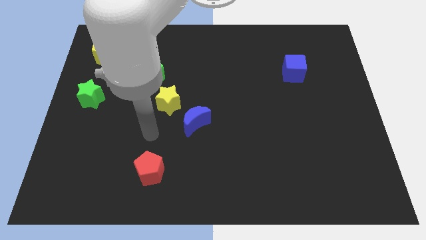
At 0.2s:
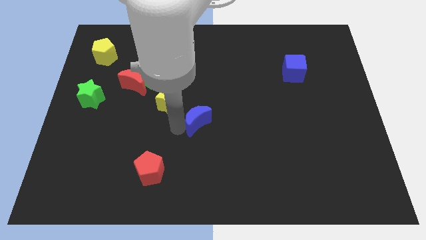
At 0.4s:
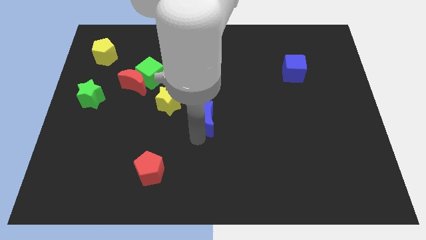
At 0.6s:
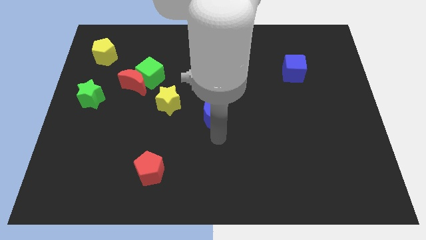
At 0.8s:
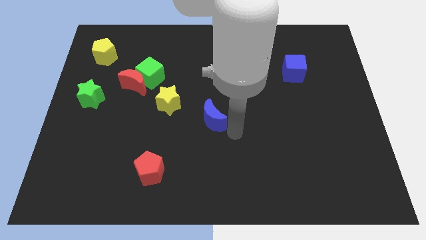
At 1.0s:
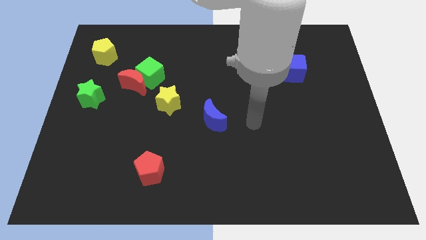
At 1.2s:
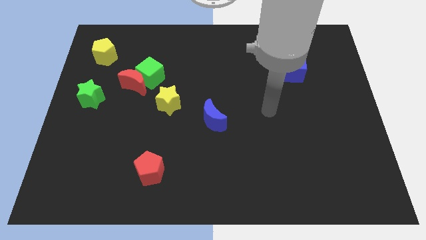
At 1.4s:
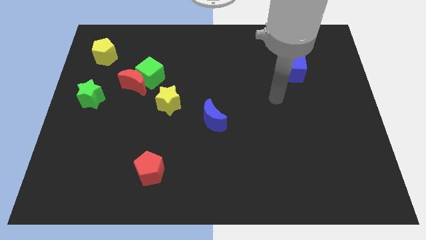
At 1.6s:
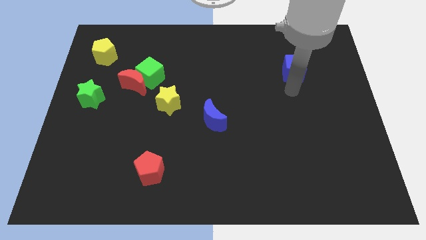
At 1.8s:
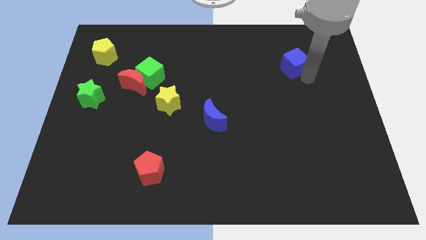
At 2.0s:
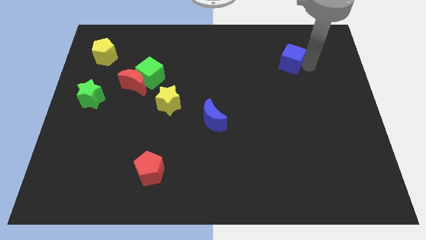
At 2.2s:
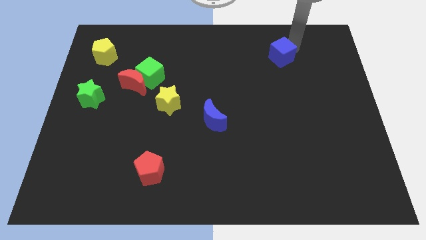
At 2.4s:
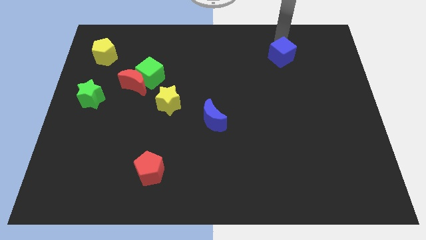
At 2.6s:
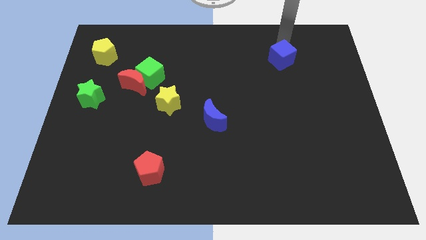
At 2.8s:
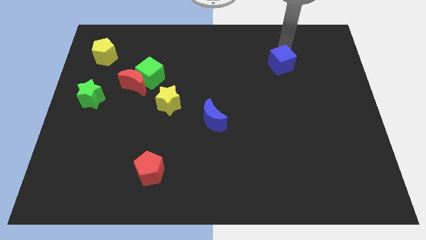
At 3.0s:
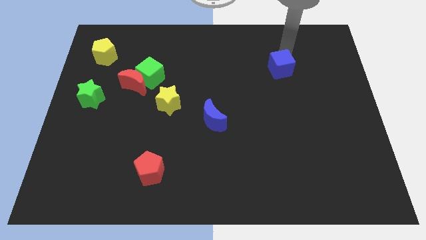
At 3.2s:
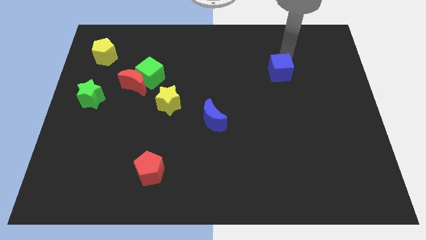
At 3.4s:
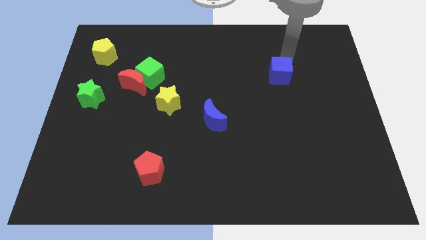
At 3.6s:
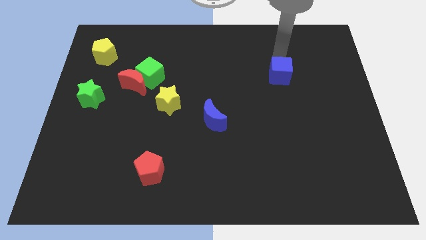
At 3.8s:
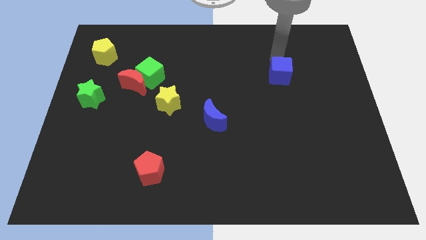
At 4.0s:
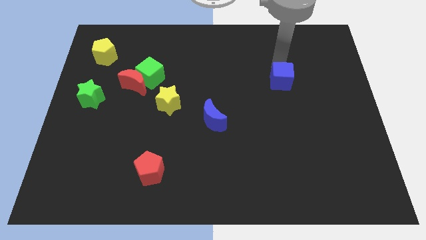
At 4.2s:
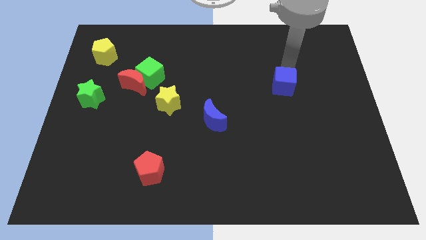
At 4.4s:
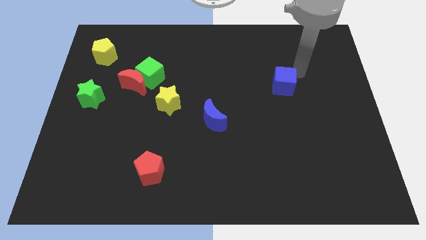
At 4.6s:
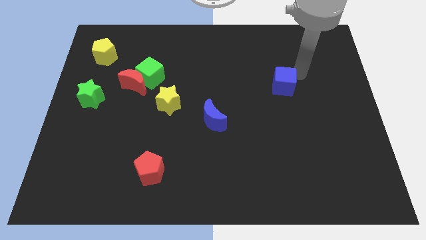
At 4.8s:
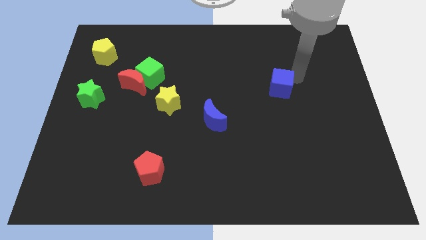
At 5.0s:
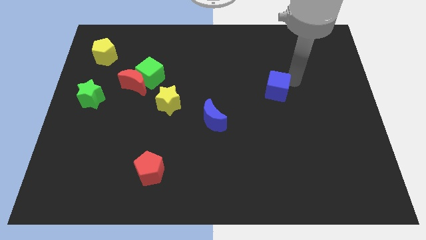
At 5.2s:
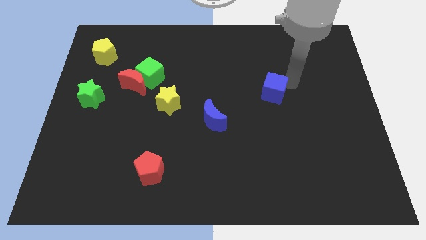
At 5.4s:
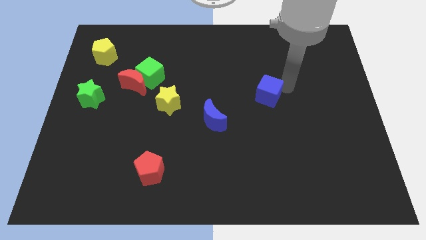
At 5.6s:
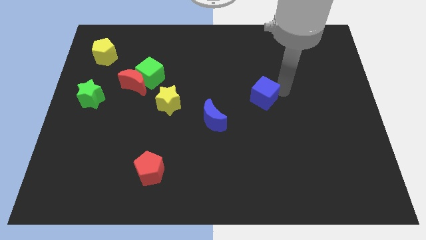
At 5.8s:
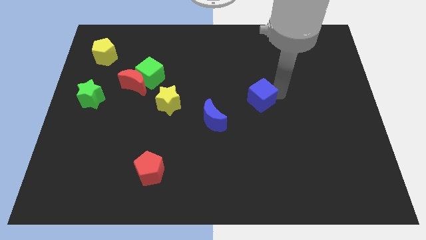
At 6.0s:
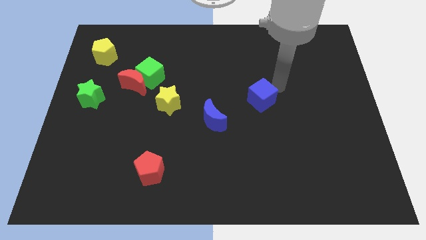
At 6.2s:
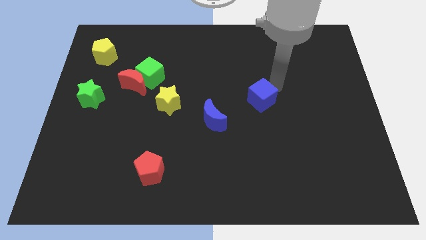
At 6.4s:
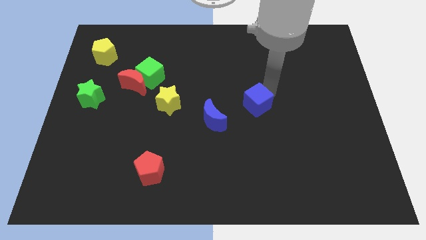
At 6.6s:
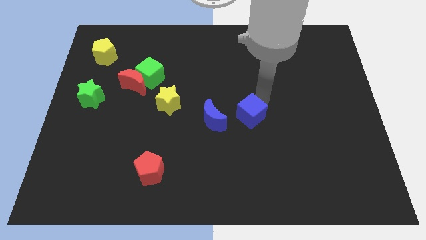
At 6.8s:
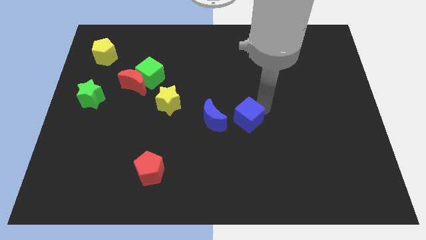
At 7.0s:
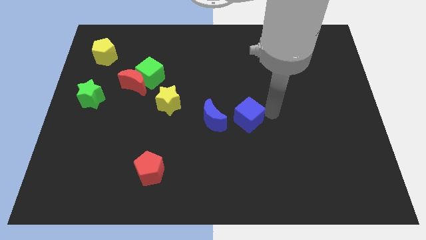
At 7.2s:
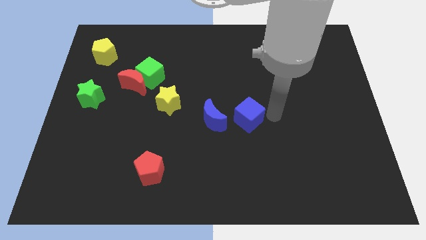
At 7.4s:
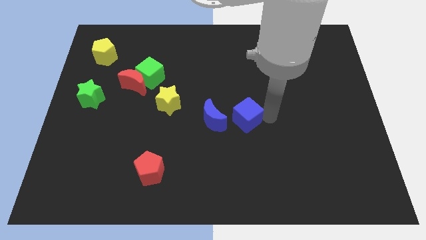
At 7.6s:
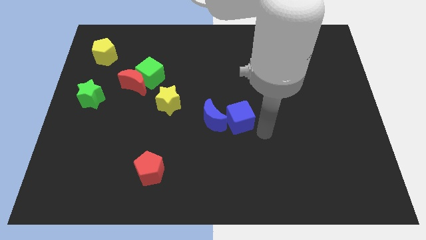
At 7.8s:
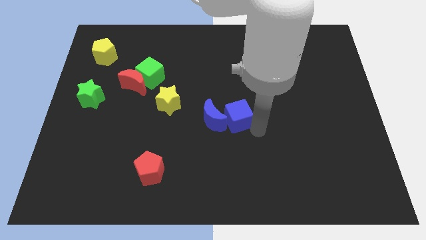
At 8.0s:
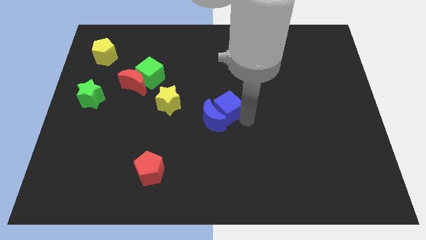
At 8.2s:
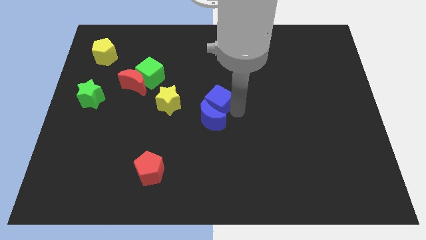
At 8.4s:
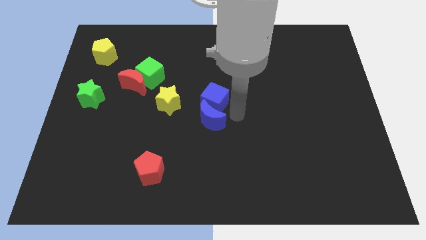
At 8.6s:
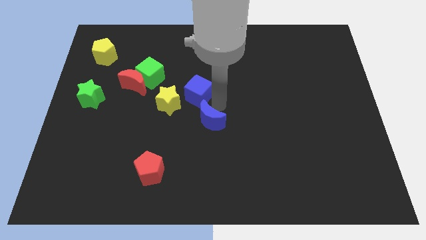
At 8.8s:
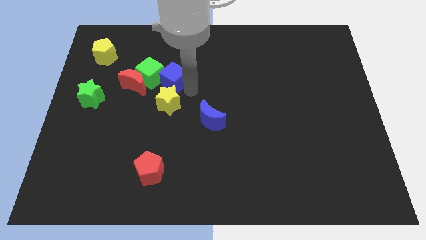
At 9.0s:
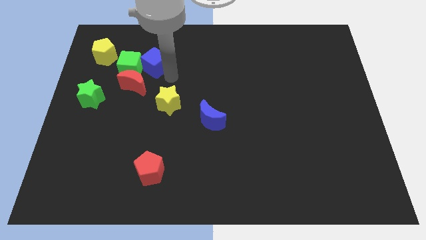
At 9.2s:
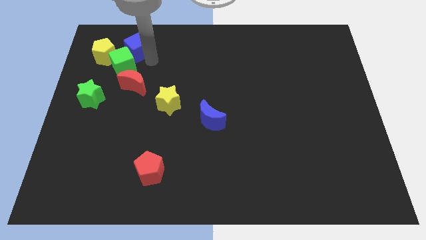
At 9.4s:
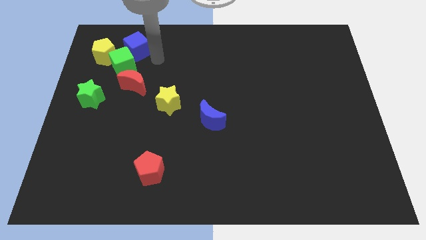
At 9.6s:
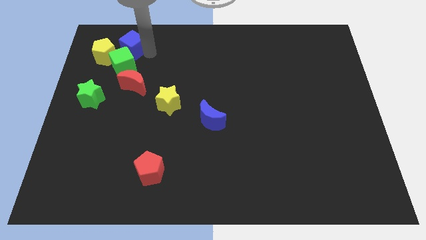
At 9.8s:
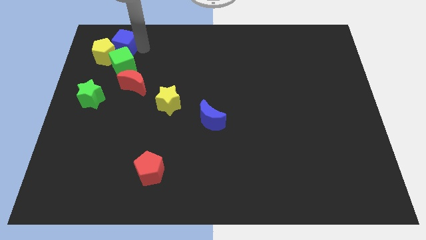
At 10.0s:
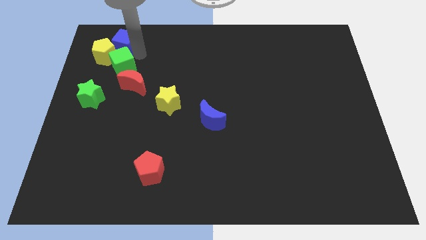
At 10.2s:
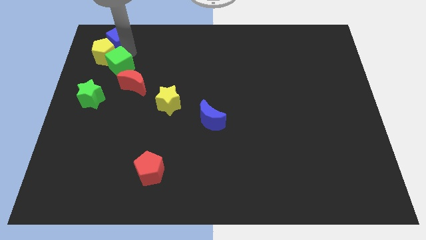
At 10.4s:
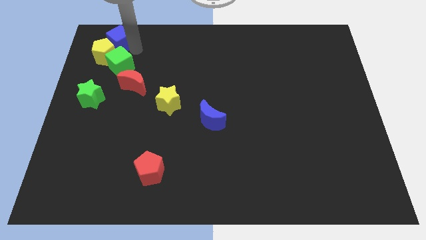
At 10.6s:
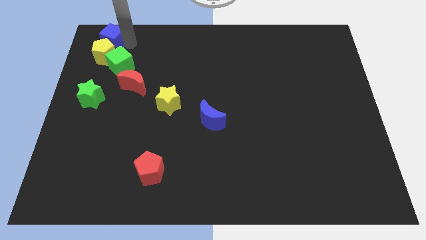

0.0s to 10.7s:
slide the blue cube to the upper left corner

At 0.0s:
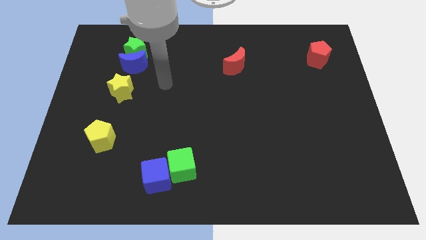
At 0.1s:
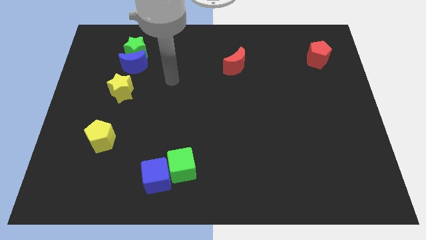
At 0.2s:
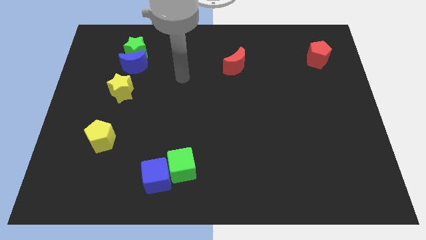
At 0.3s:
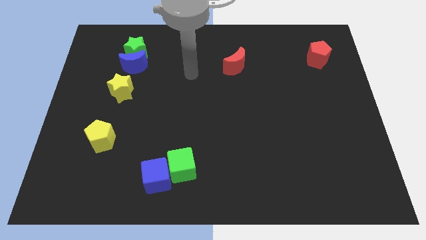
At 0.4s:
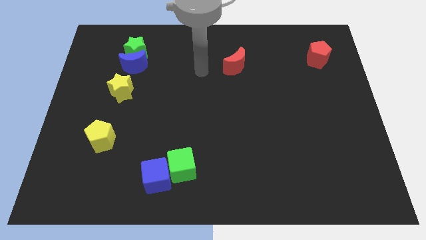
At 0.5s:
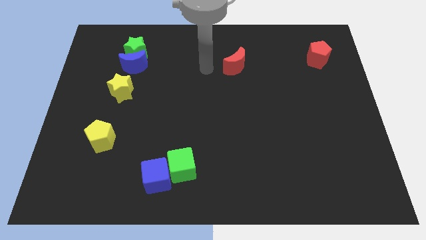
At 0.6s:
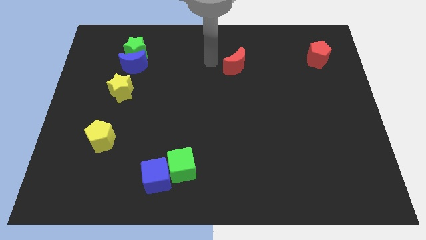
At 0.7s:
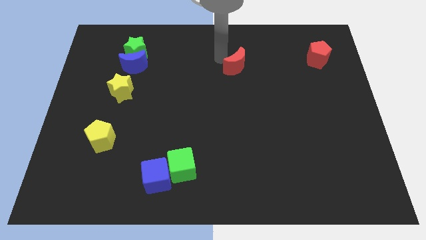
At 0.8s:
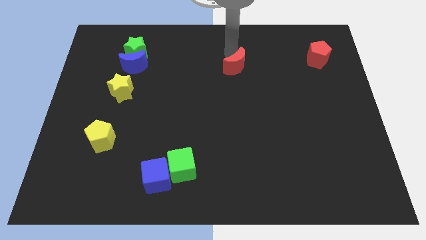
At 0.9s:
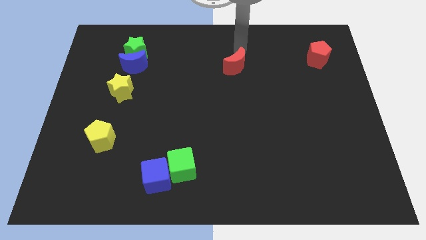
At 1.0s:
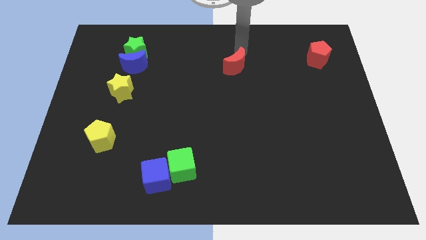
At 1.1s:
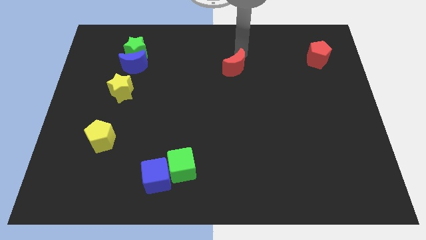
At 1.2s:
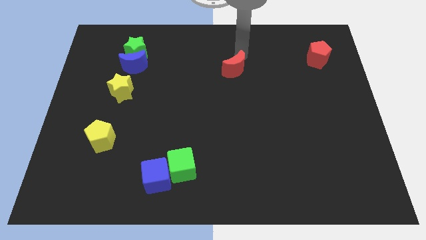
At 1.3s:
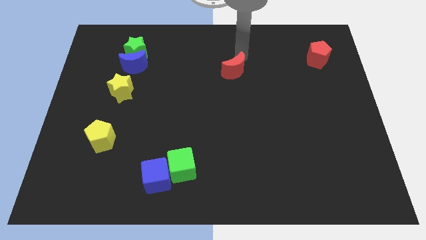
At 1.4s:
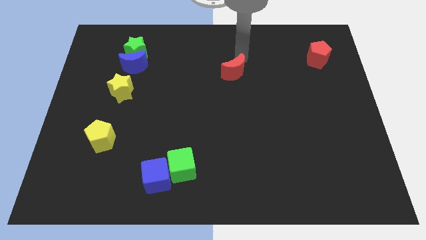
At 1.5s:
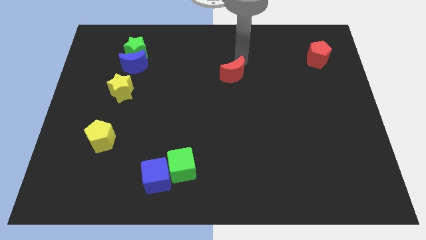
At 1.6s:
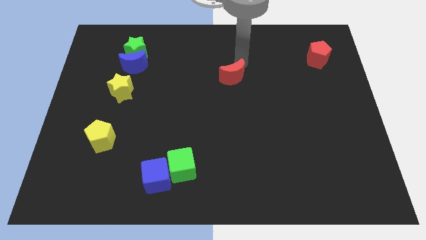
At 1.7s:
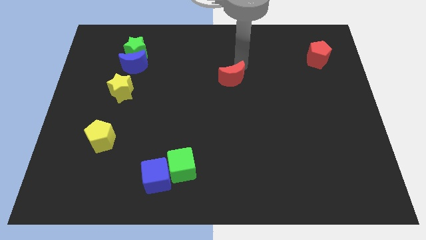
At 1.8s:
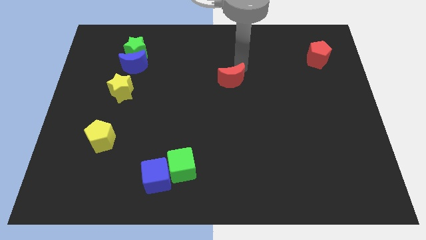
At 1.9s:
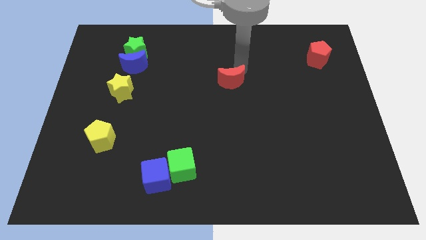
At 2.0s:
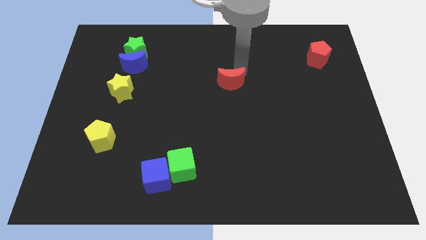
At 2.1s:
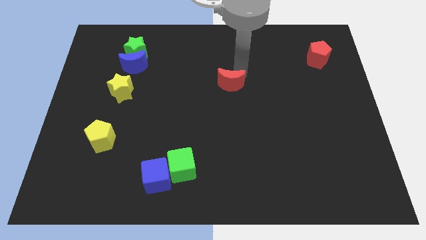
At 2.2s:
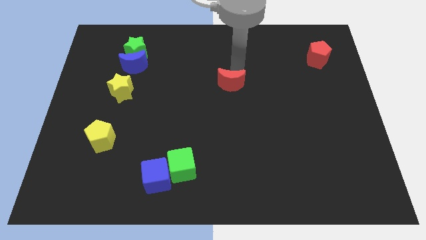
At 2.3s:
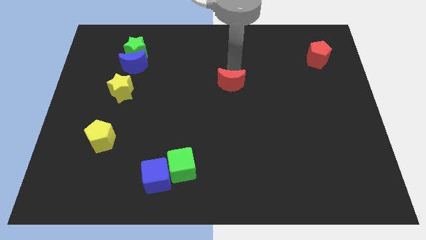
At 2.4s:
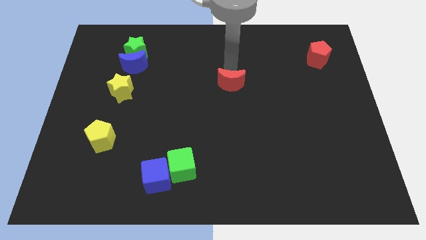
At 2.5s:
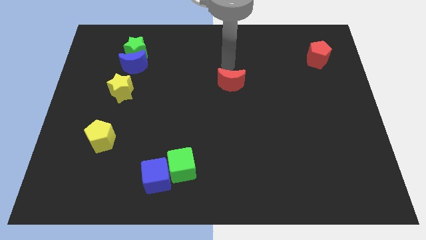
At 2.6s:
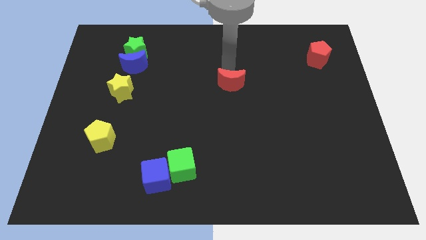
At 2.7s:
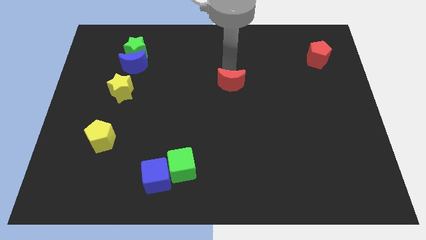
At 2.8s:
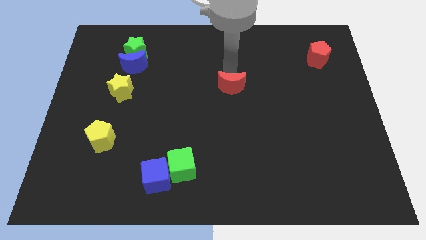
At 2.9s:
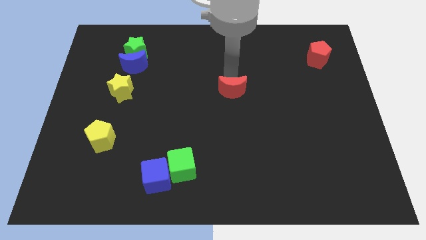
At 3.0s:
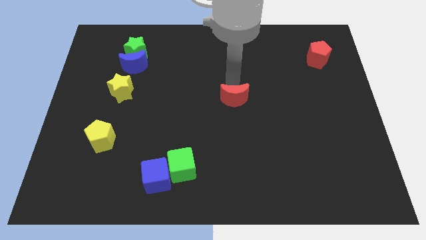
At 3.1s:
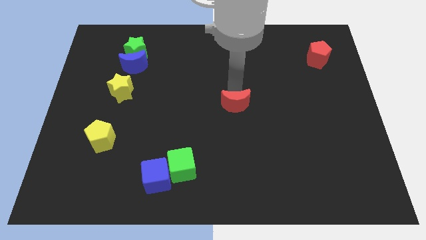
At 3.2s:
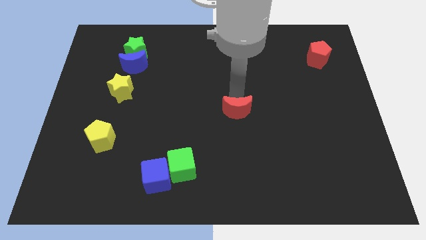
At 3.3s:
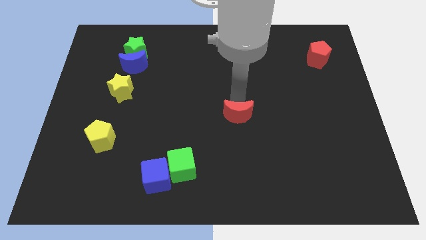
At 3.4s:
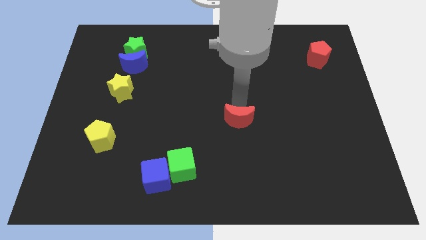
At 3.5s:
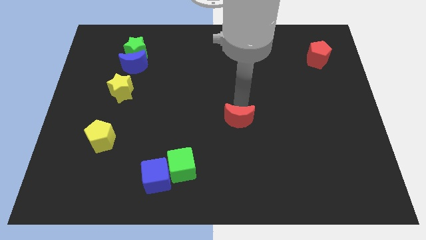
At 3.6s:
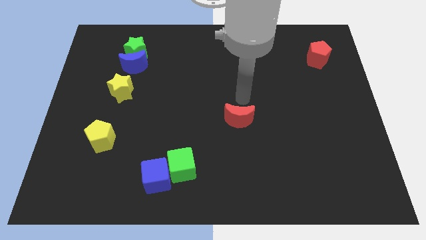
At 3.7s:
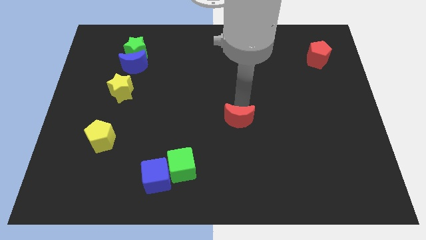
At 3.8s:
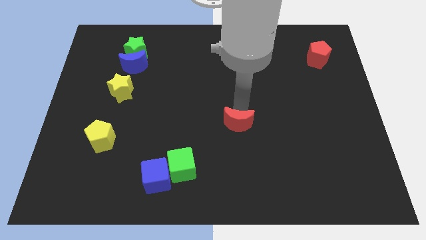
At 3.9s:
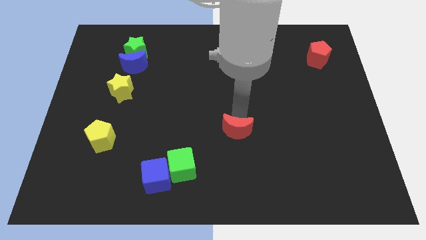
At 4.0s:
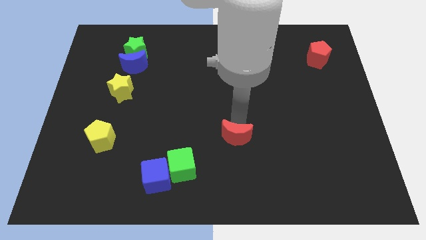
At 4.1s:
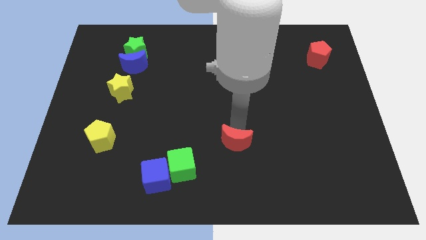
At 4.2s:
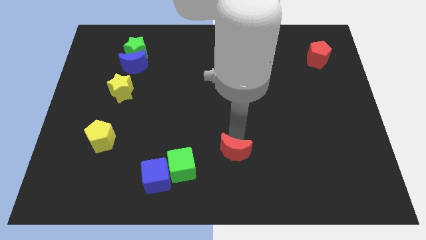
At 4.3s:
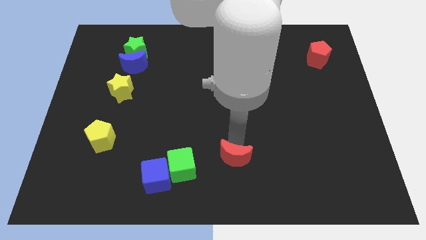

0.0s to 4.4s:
push the red moon to the bottom
